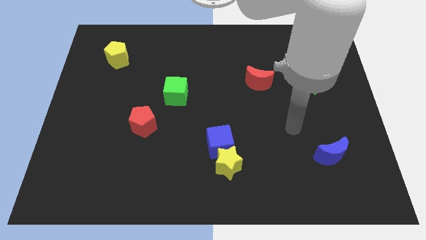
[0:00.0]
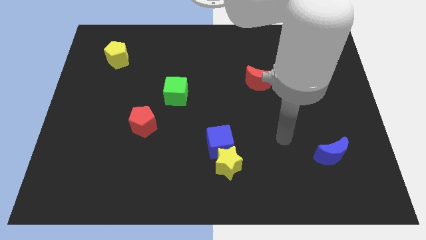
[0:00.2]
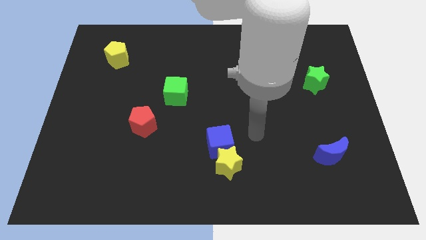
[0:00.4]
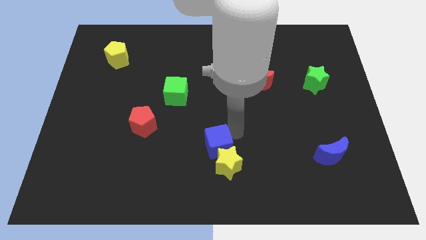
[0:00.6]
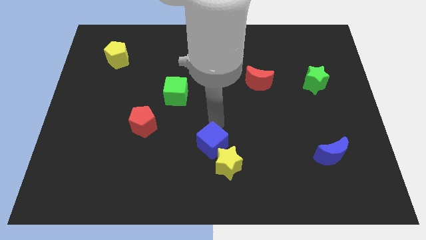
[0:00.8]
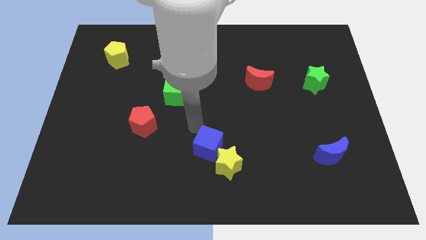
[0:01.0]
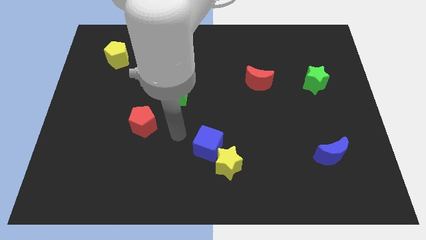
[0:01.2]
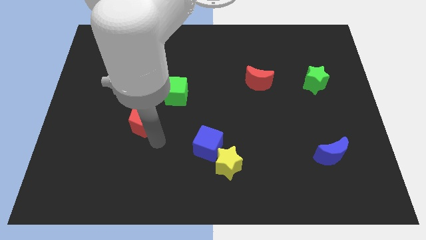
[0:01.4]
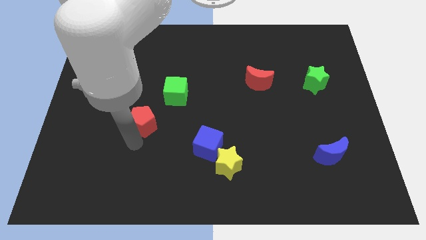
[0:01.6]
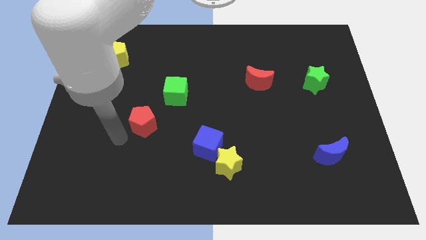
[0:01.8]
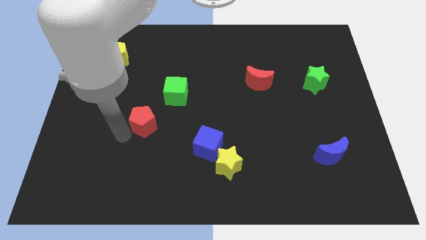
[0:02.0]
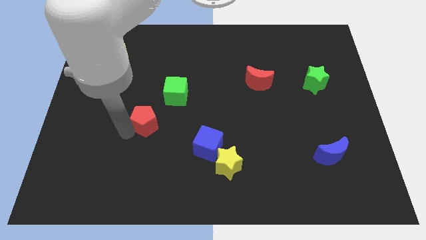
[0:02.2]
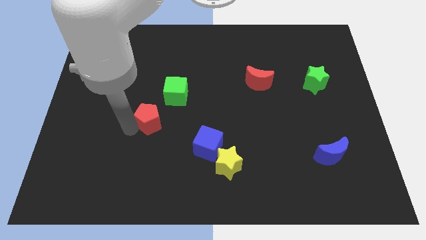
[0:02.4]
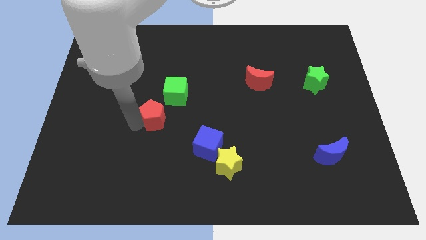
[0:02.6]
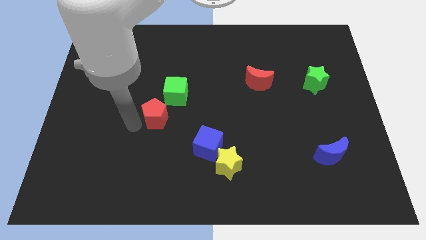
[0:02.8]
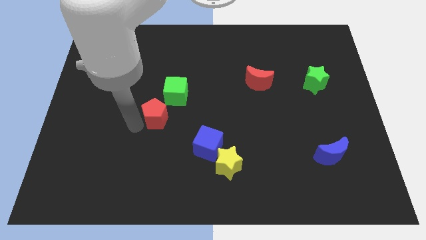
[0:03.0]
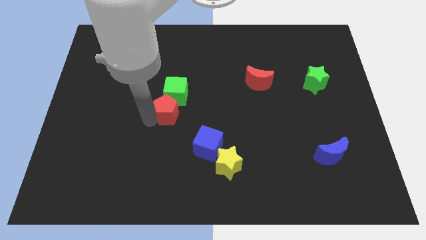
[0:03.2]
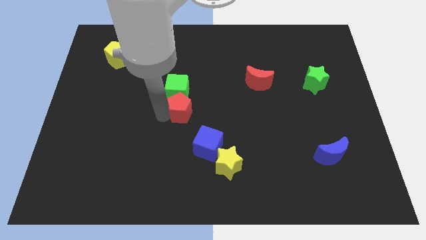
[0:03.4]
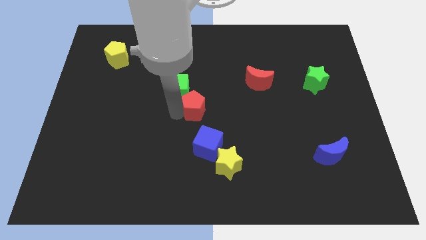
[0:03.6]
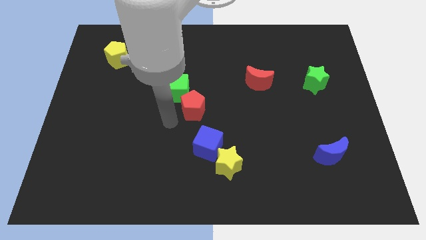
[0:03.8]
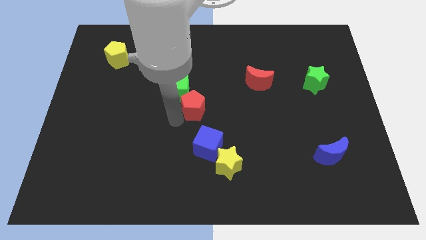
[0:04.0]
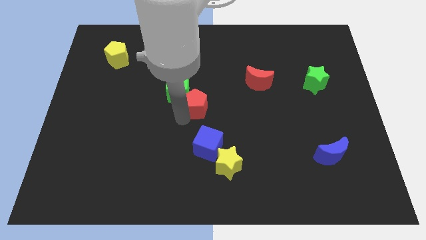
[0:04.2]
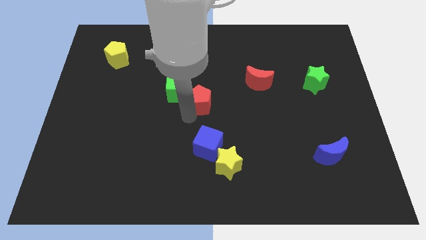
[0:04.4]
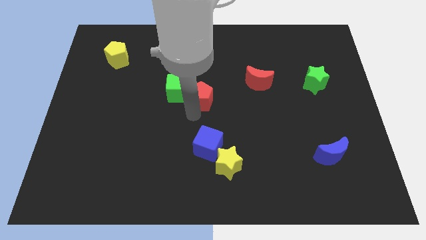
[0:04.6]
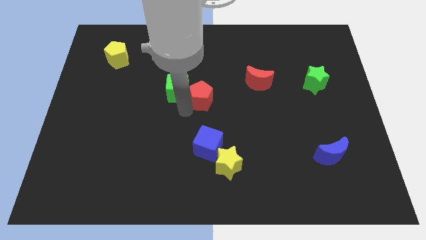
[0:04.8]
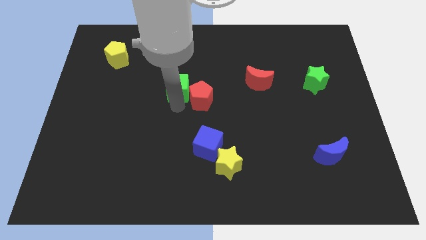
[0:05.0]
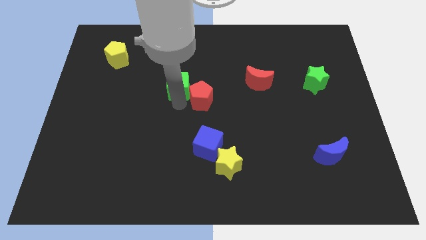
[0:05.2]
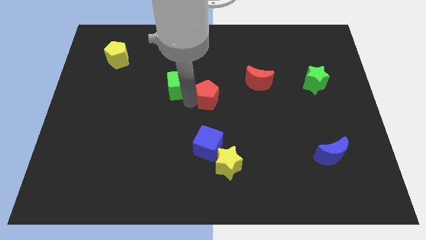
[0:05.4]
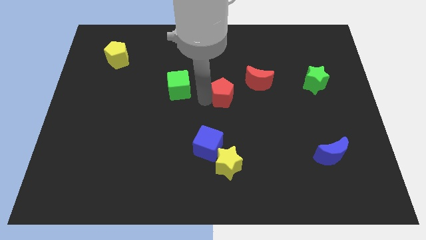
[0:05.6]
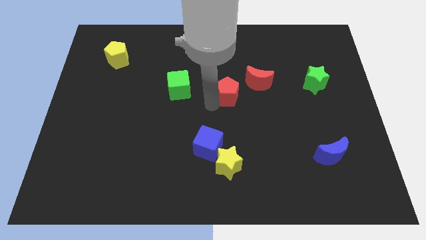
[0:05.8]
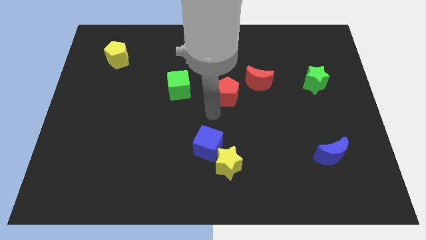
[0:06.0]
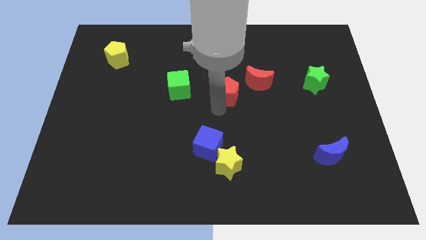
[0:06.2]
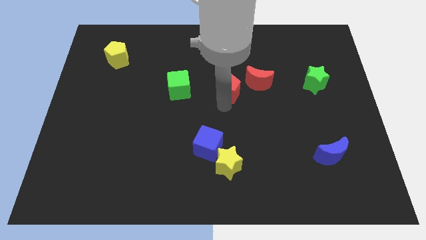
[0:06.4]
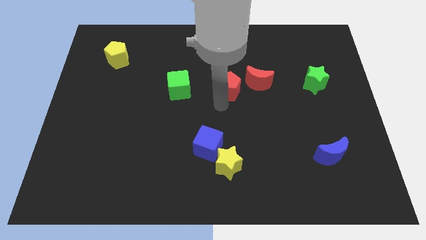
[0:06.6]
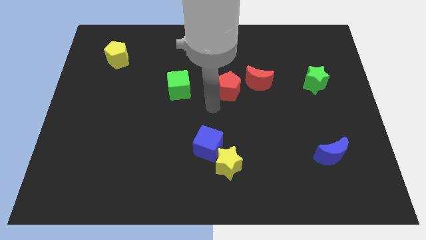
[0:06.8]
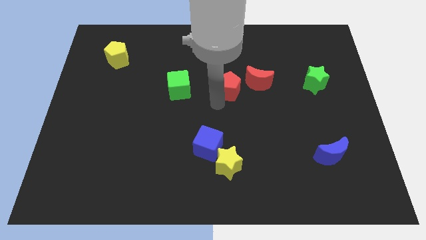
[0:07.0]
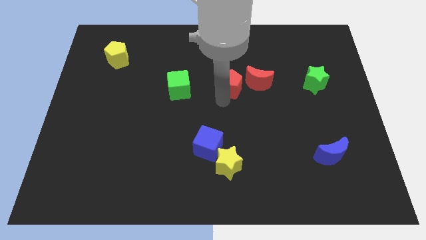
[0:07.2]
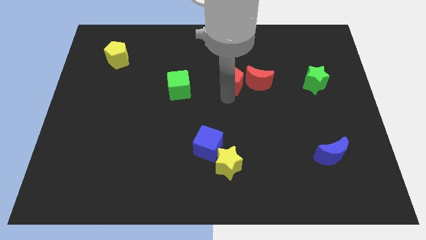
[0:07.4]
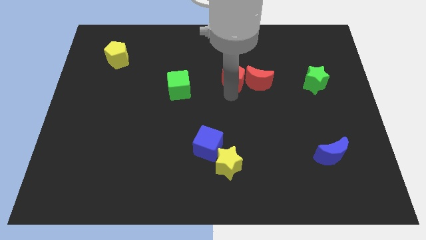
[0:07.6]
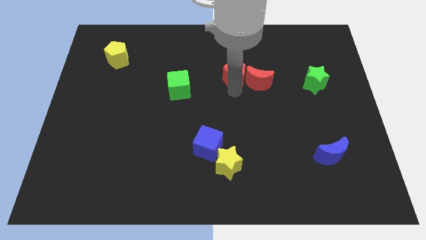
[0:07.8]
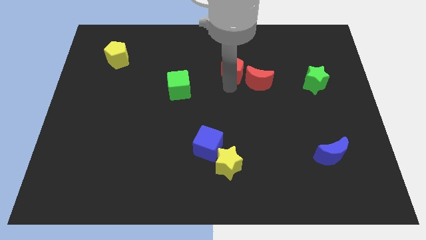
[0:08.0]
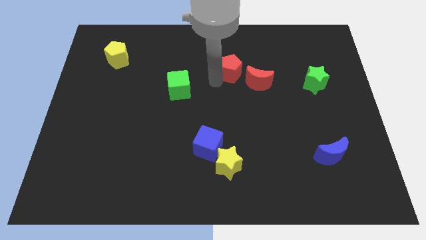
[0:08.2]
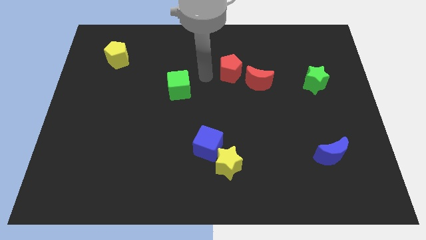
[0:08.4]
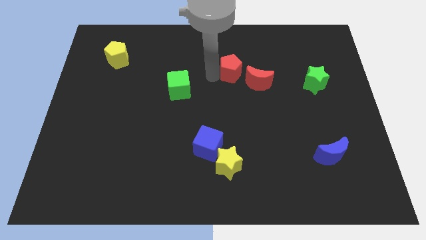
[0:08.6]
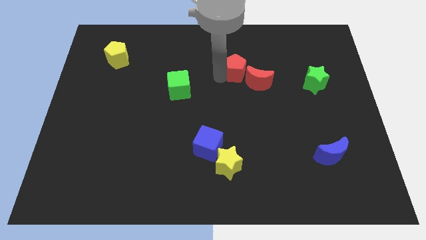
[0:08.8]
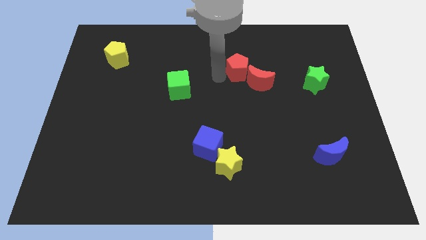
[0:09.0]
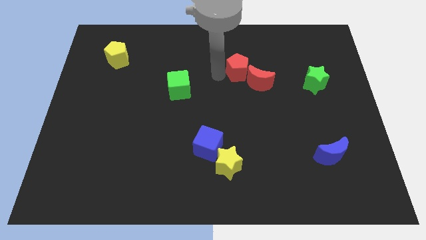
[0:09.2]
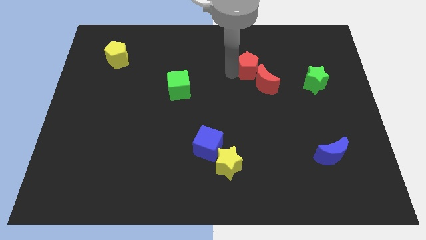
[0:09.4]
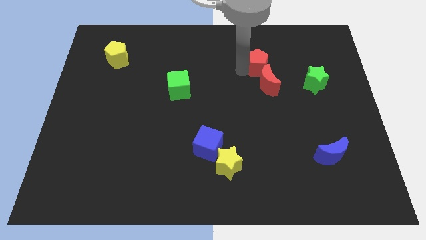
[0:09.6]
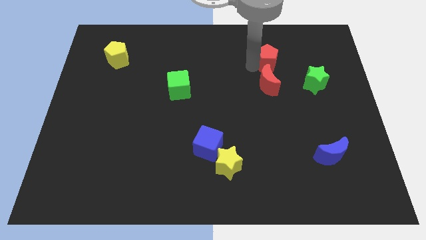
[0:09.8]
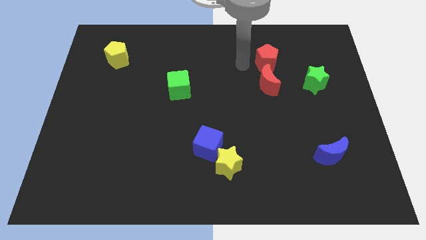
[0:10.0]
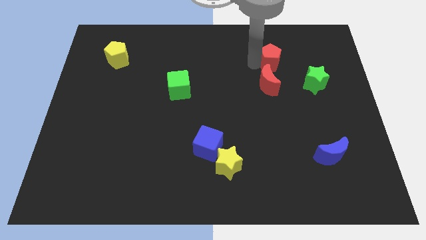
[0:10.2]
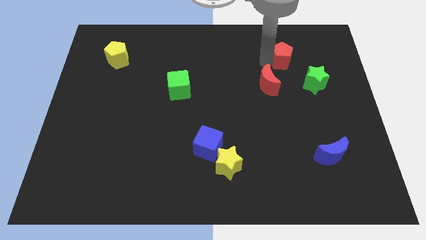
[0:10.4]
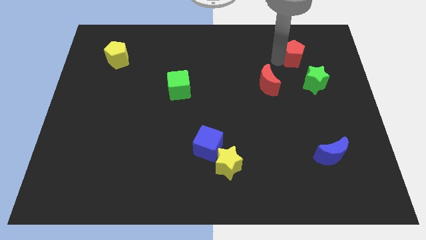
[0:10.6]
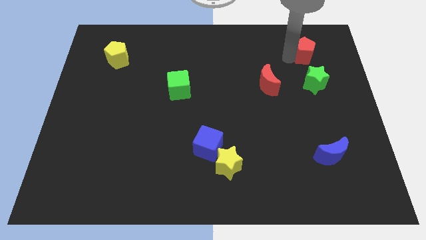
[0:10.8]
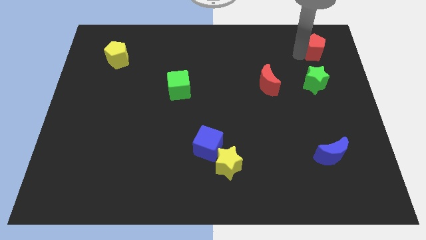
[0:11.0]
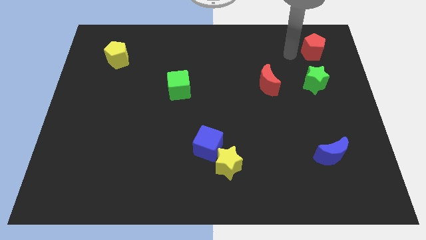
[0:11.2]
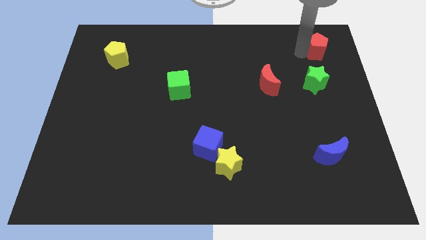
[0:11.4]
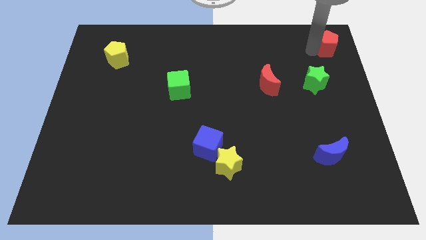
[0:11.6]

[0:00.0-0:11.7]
move the red pentagon to the top right

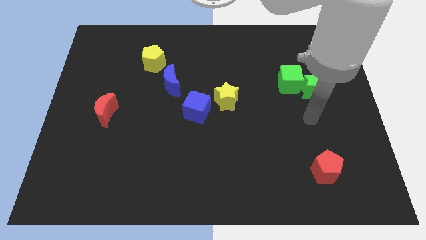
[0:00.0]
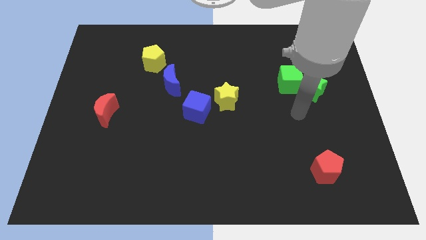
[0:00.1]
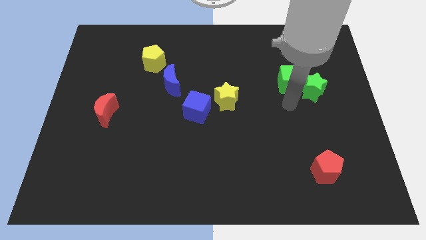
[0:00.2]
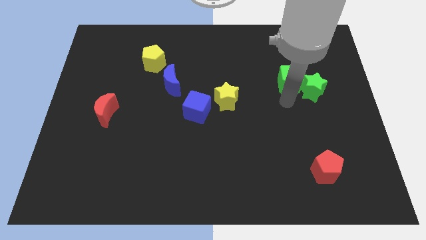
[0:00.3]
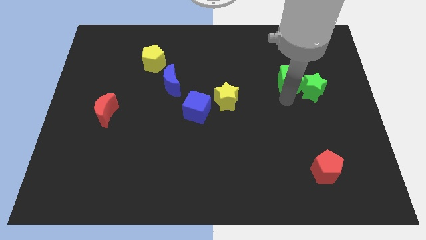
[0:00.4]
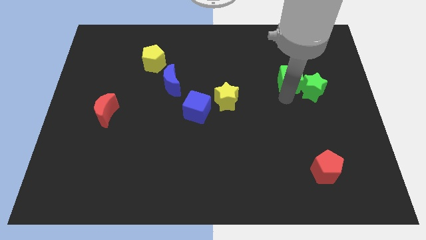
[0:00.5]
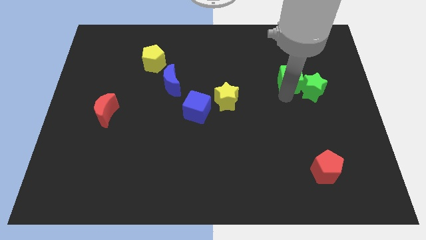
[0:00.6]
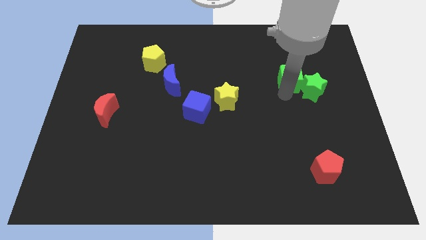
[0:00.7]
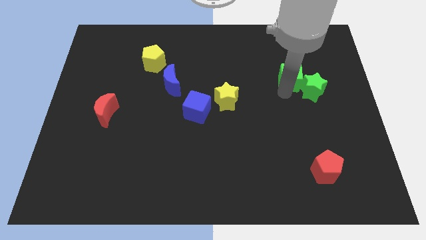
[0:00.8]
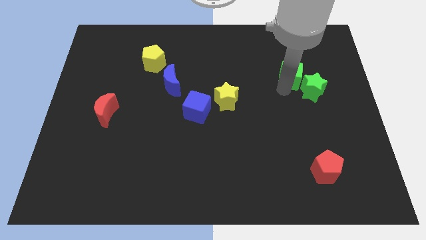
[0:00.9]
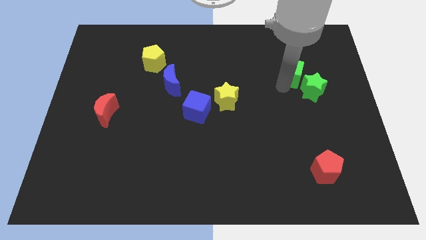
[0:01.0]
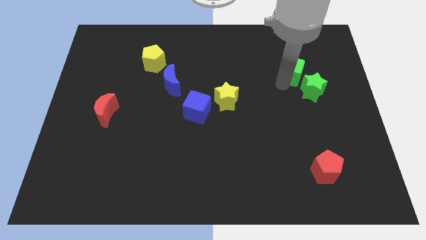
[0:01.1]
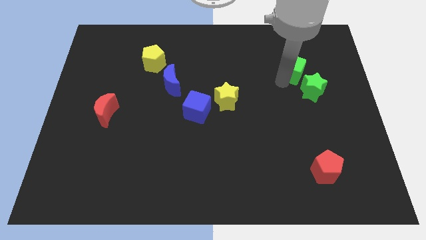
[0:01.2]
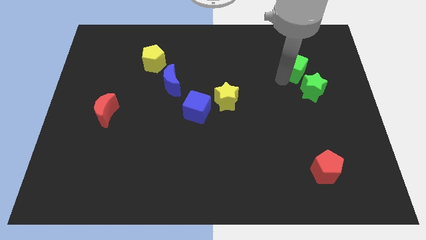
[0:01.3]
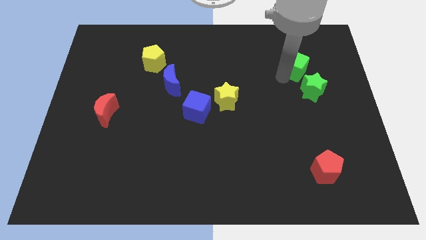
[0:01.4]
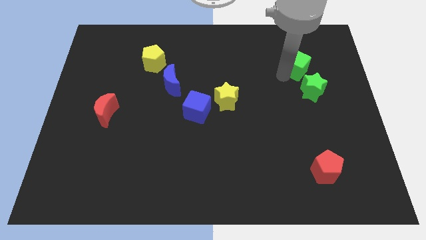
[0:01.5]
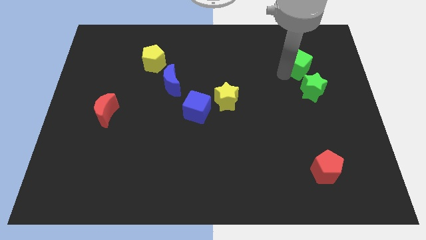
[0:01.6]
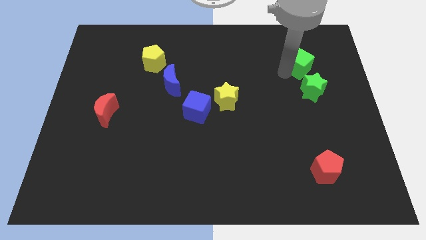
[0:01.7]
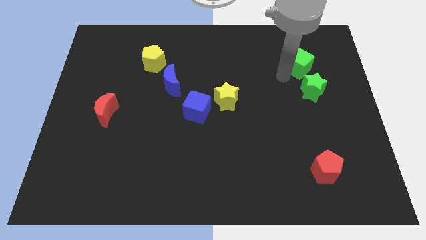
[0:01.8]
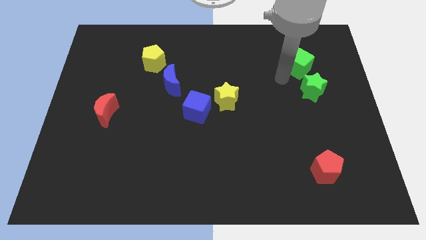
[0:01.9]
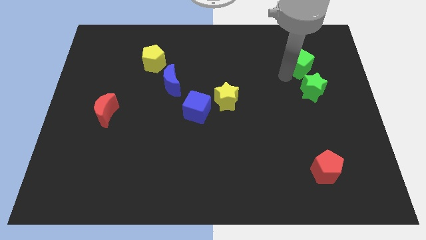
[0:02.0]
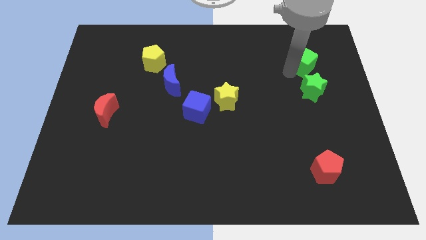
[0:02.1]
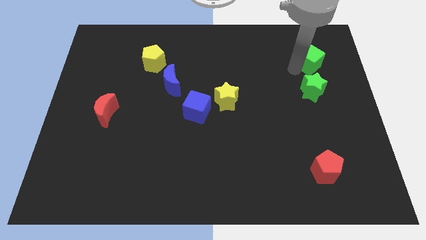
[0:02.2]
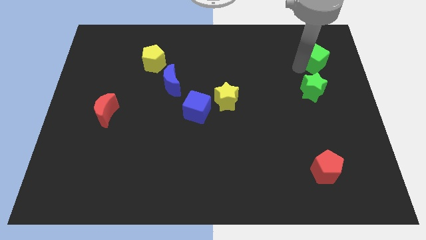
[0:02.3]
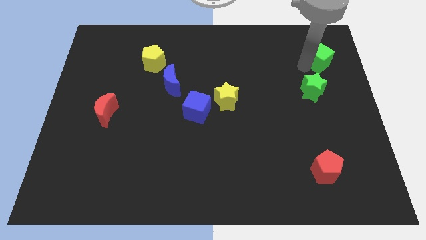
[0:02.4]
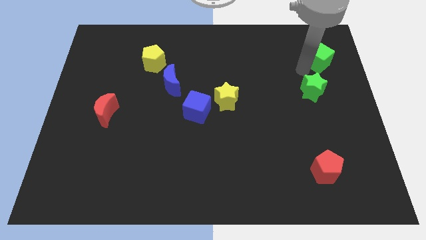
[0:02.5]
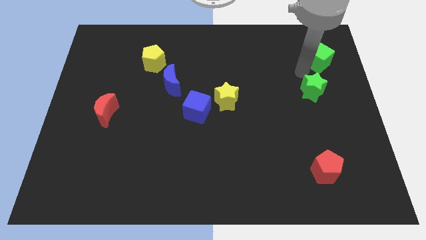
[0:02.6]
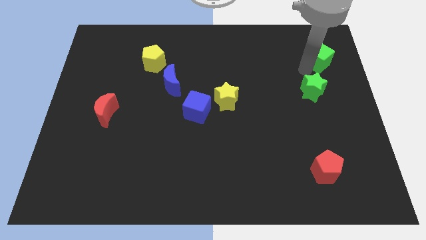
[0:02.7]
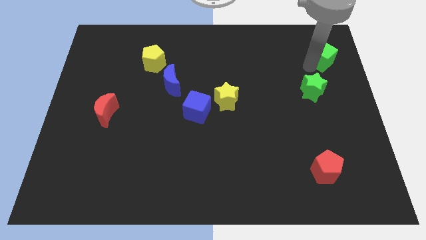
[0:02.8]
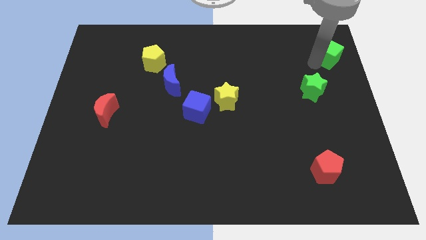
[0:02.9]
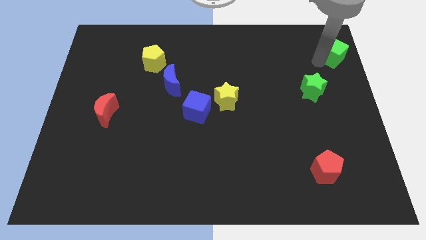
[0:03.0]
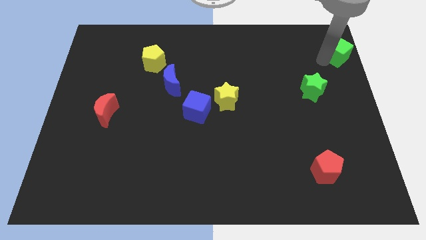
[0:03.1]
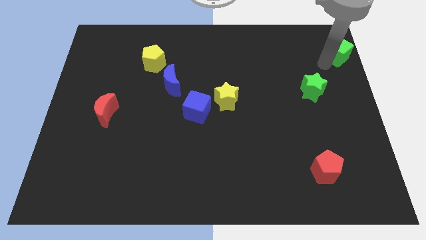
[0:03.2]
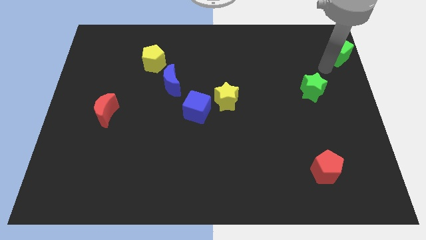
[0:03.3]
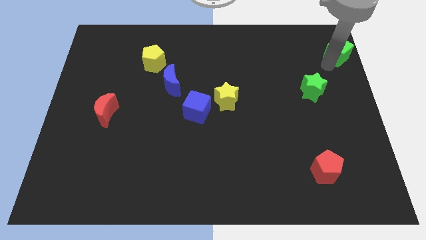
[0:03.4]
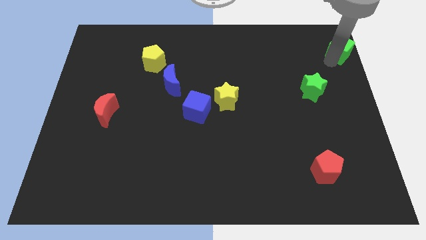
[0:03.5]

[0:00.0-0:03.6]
move the green cube to the top right
